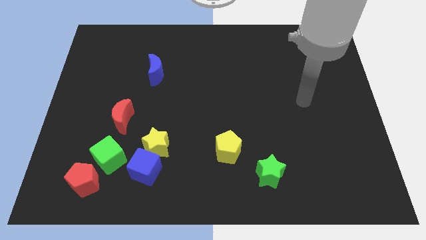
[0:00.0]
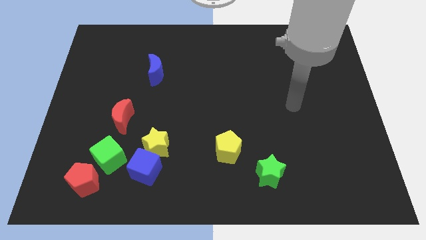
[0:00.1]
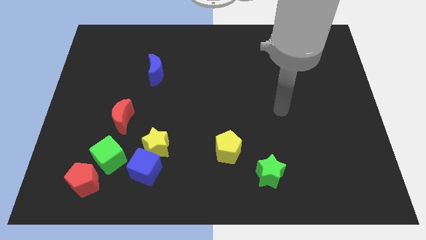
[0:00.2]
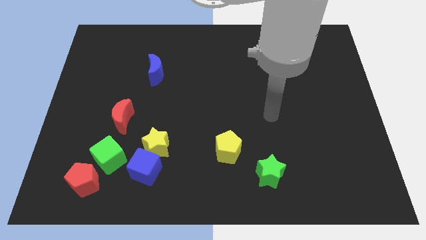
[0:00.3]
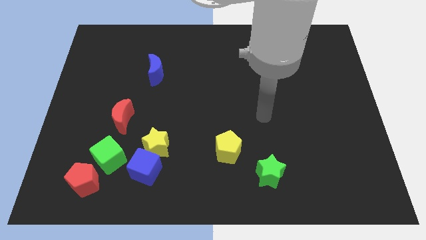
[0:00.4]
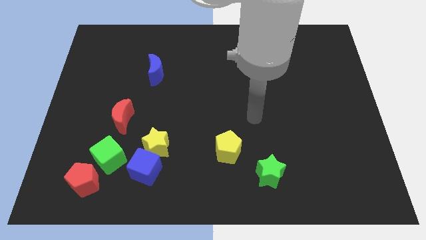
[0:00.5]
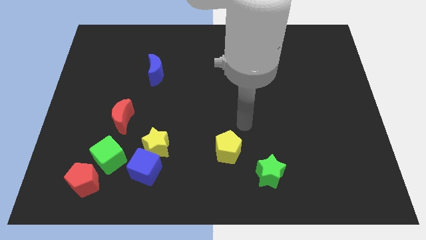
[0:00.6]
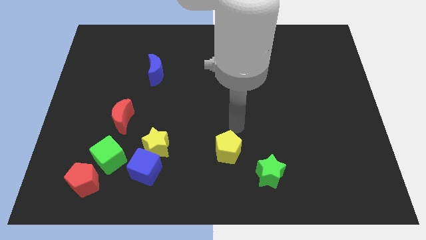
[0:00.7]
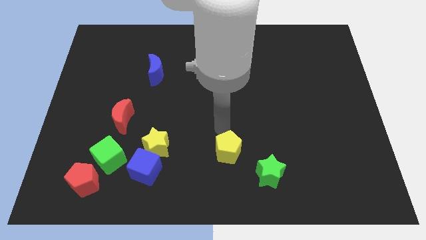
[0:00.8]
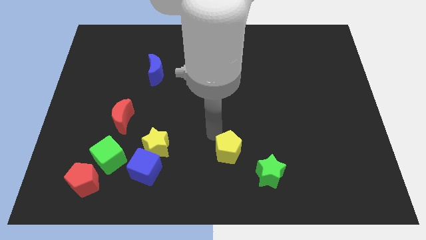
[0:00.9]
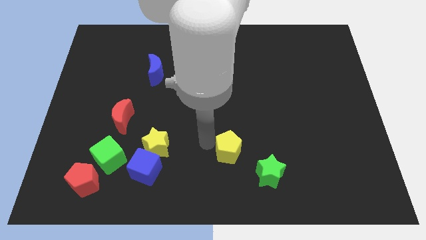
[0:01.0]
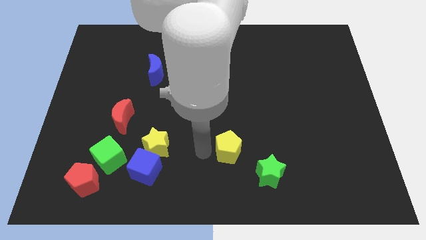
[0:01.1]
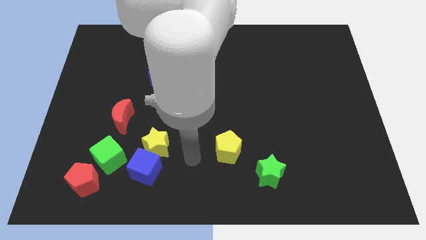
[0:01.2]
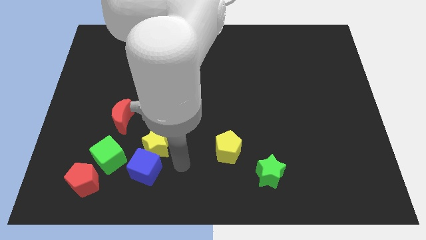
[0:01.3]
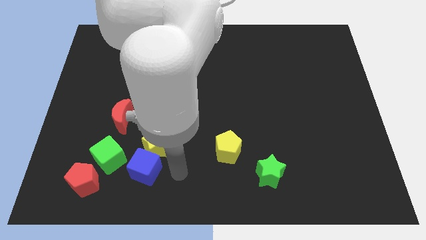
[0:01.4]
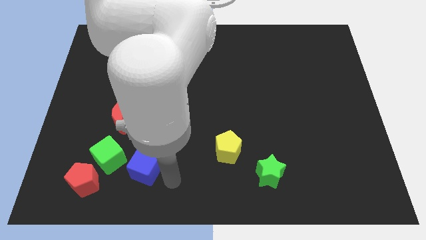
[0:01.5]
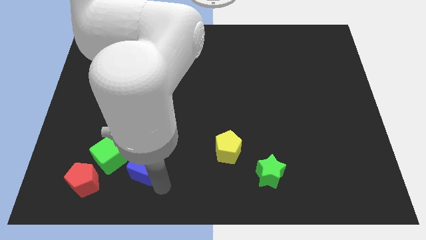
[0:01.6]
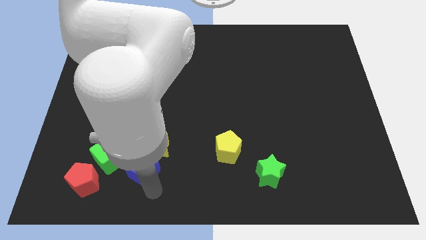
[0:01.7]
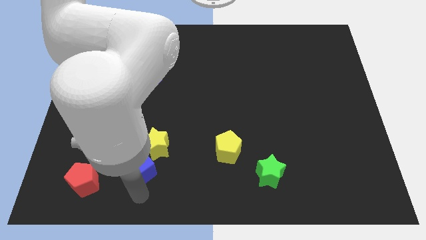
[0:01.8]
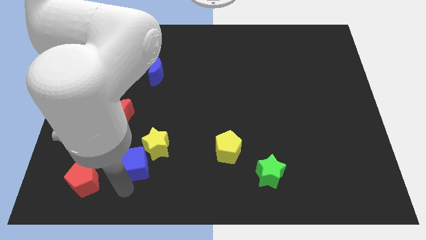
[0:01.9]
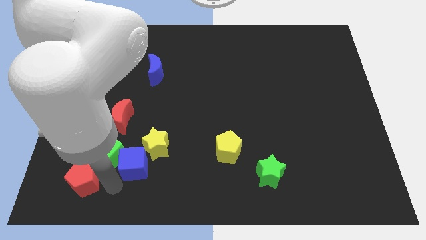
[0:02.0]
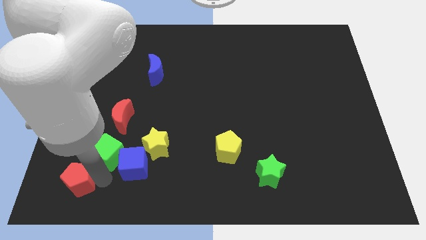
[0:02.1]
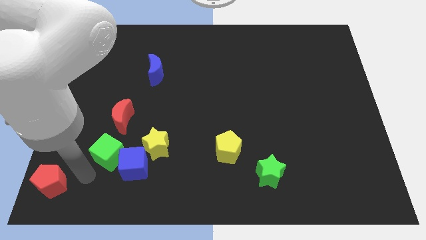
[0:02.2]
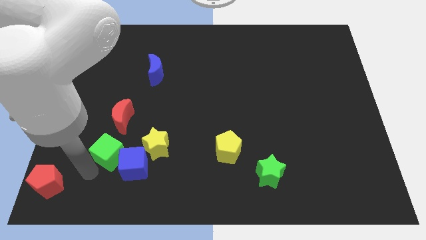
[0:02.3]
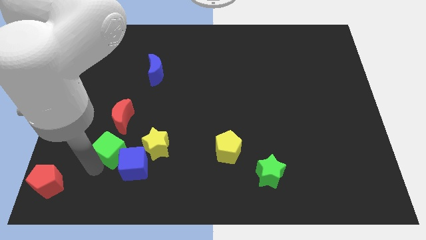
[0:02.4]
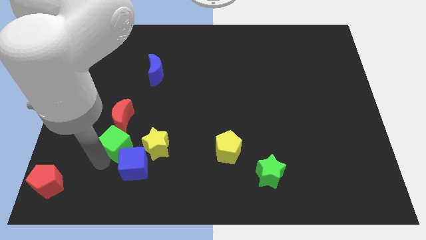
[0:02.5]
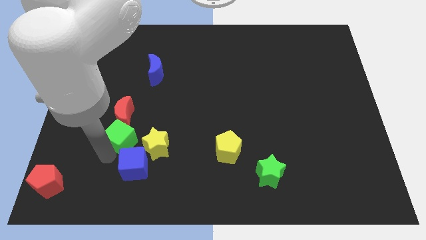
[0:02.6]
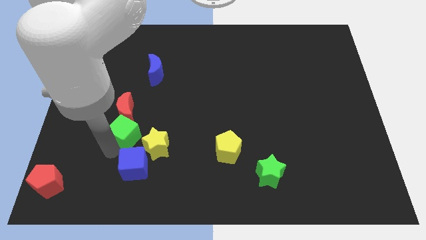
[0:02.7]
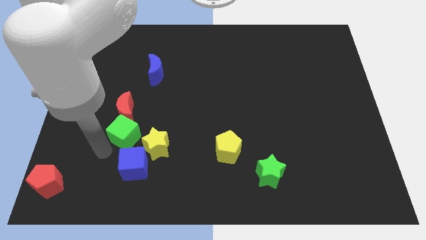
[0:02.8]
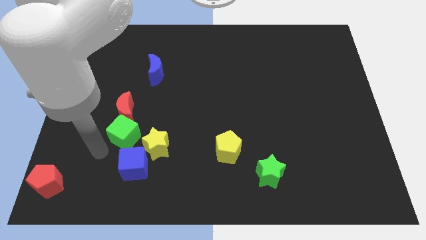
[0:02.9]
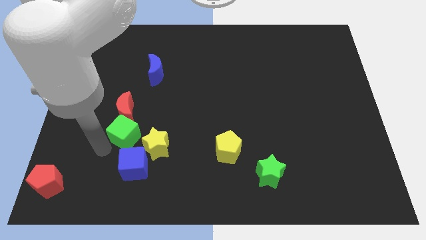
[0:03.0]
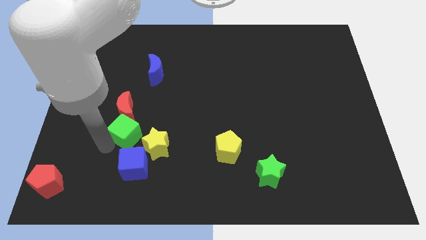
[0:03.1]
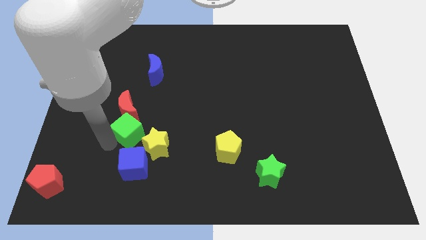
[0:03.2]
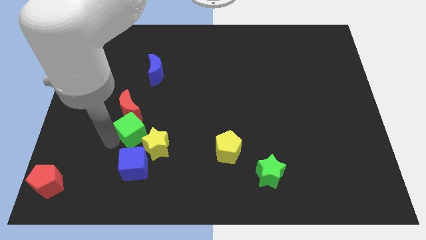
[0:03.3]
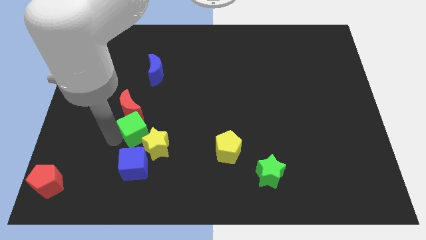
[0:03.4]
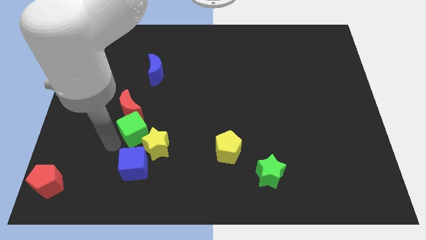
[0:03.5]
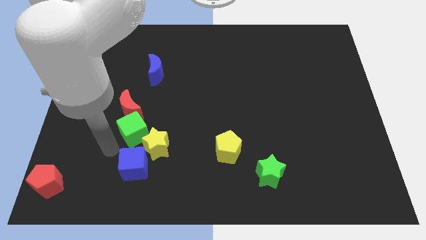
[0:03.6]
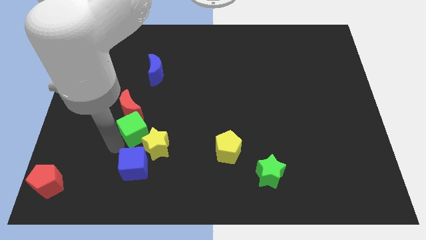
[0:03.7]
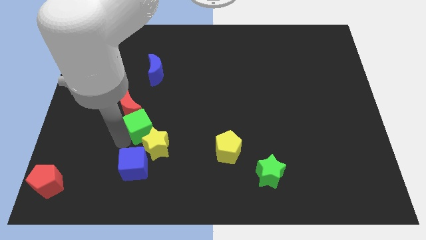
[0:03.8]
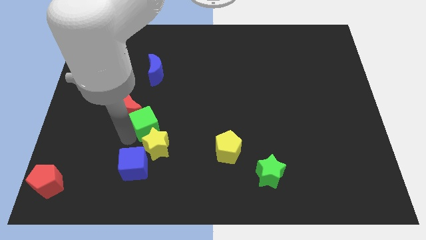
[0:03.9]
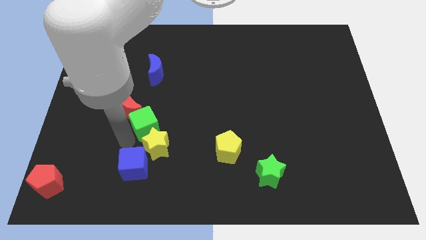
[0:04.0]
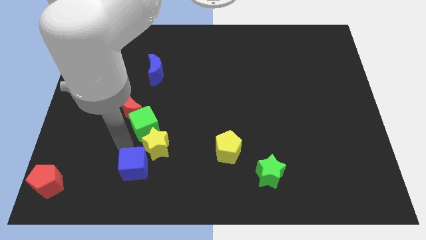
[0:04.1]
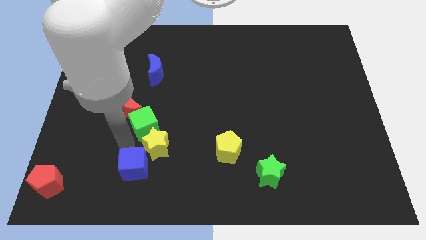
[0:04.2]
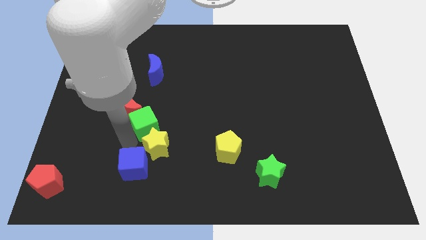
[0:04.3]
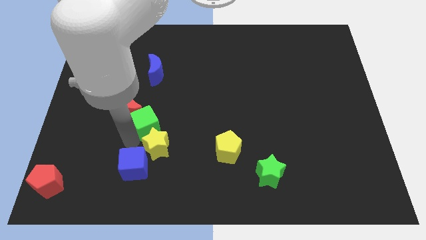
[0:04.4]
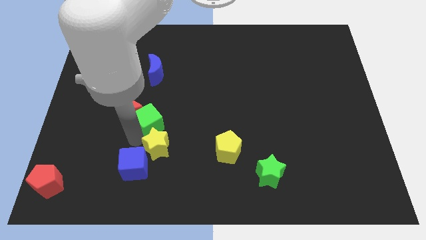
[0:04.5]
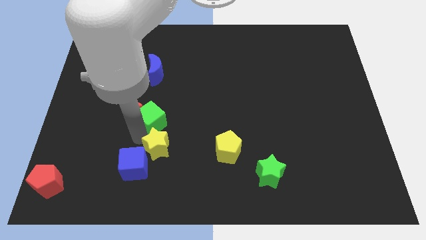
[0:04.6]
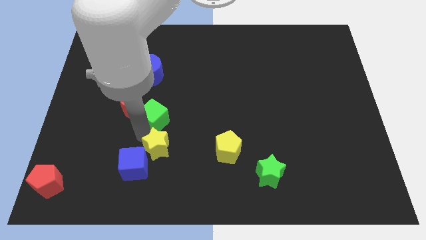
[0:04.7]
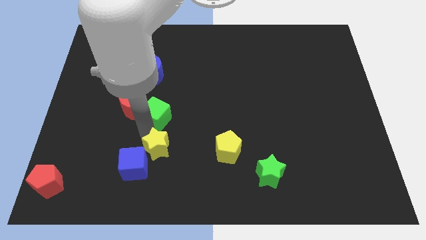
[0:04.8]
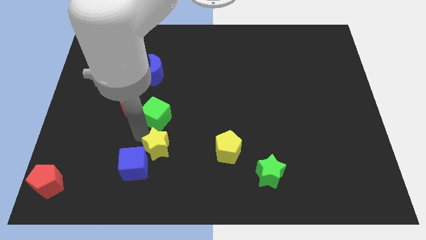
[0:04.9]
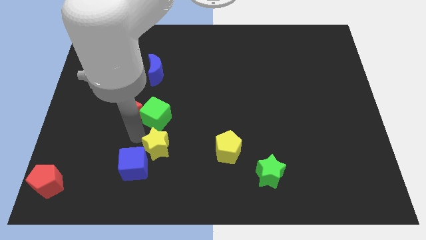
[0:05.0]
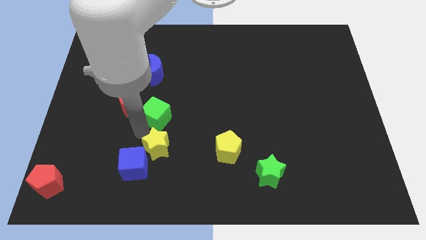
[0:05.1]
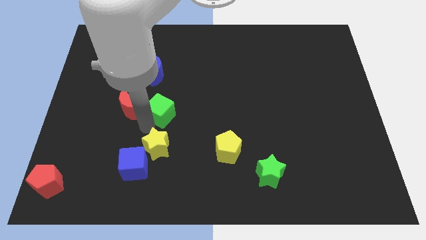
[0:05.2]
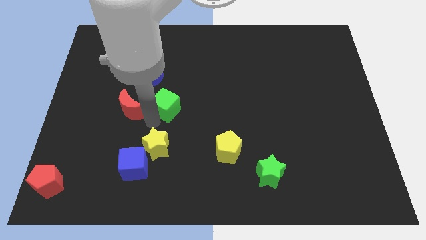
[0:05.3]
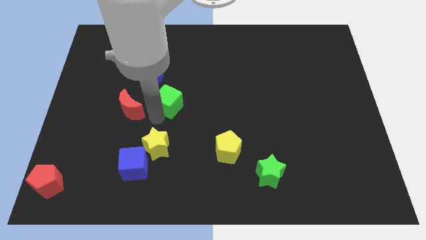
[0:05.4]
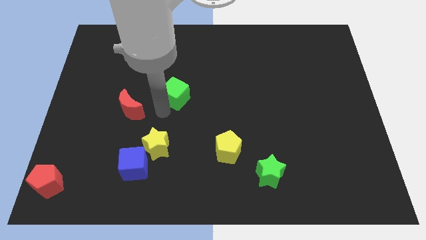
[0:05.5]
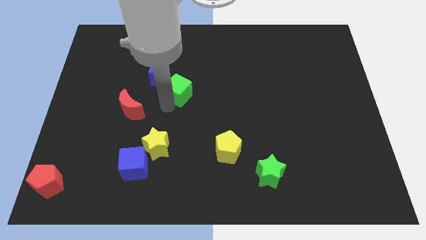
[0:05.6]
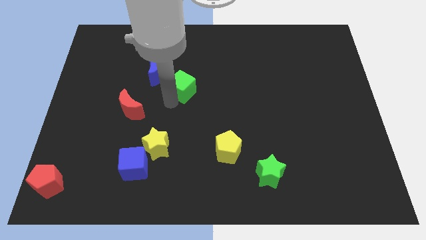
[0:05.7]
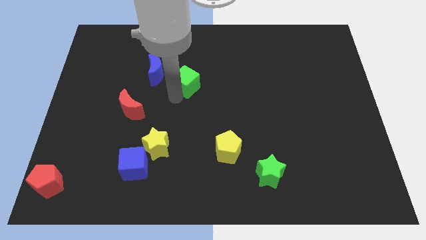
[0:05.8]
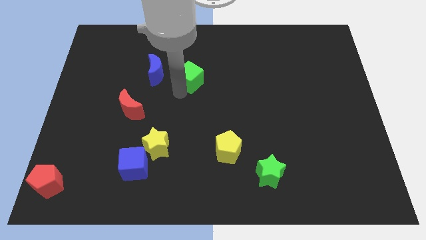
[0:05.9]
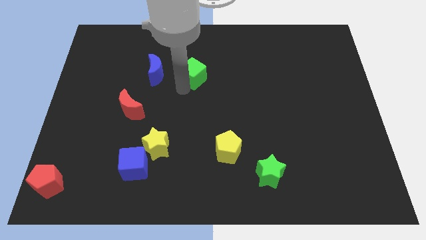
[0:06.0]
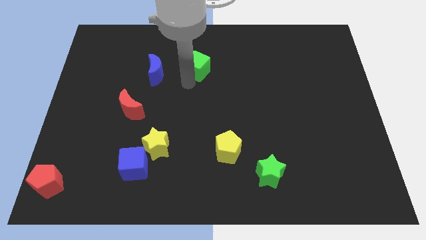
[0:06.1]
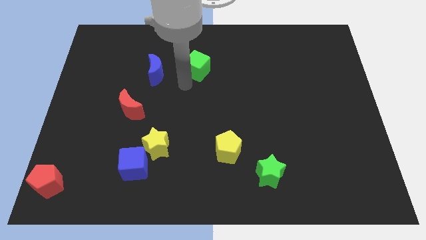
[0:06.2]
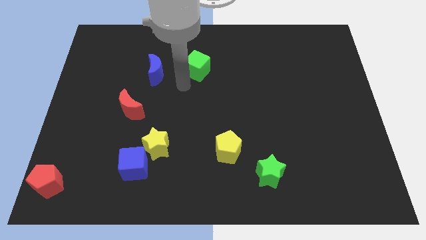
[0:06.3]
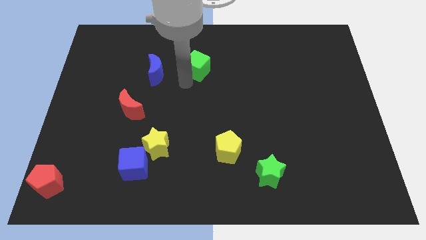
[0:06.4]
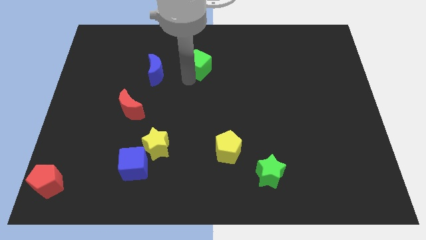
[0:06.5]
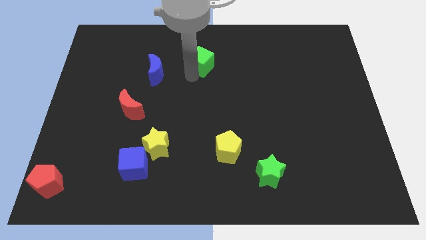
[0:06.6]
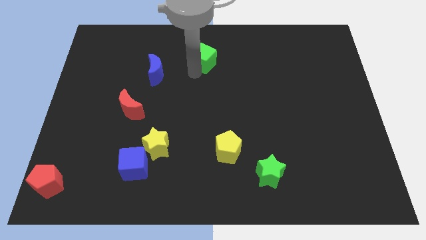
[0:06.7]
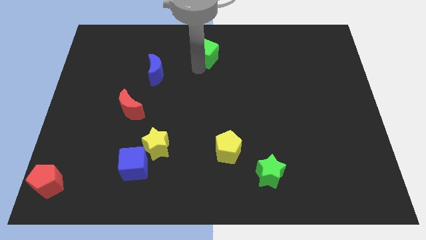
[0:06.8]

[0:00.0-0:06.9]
slide the green cube to the top
